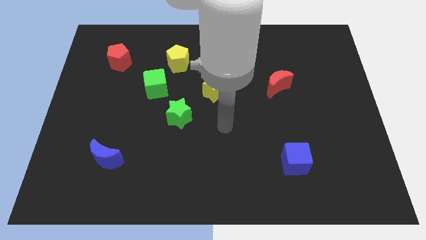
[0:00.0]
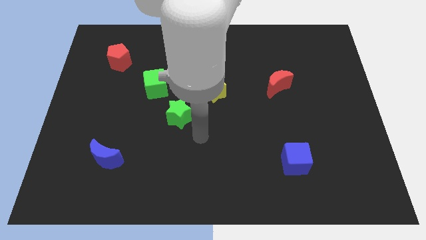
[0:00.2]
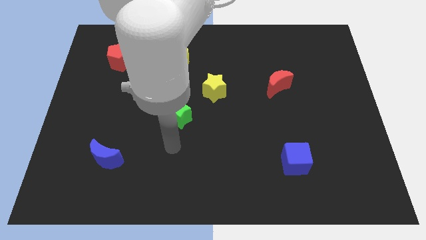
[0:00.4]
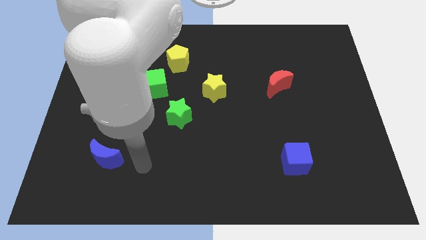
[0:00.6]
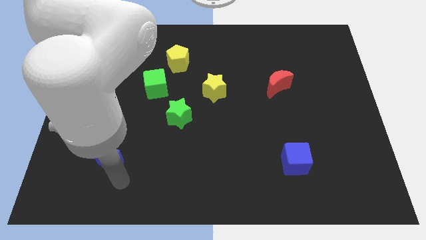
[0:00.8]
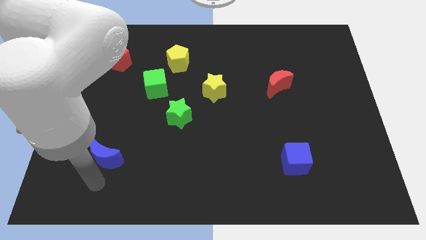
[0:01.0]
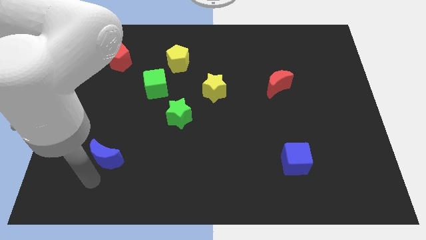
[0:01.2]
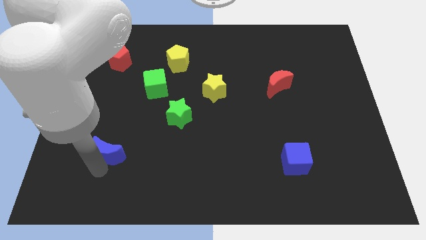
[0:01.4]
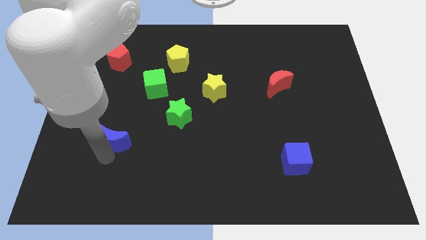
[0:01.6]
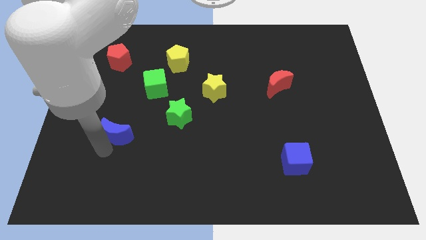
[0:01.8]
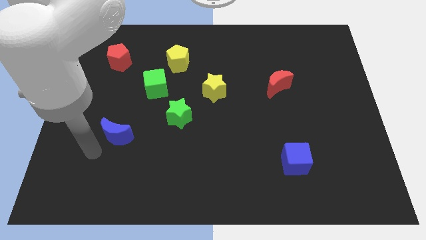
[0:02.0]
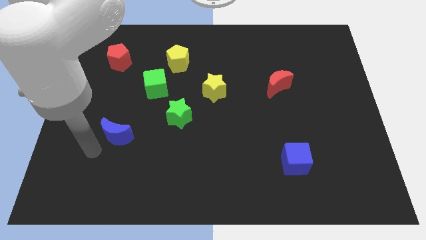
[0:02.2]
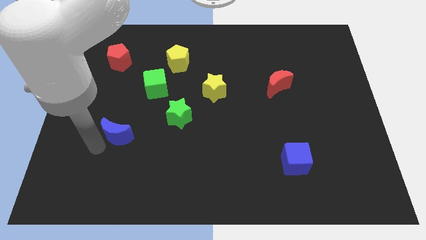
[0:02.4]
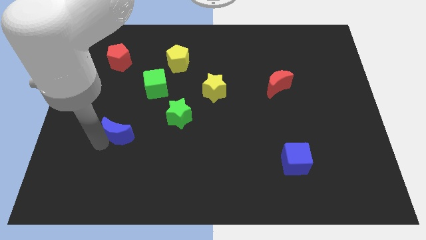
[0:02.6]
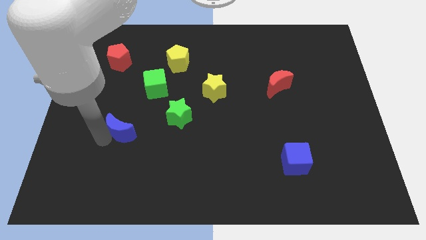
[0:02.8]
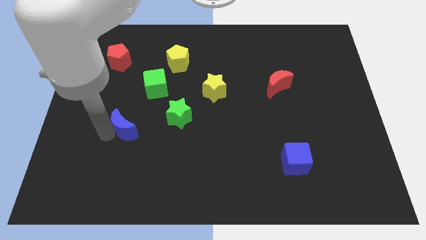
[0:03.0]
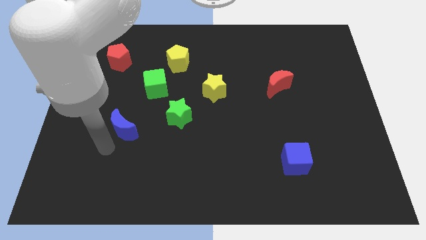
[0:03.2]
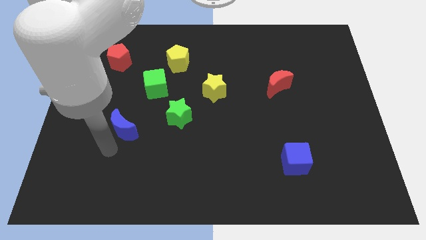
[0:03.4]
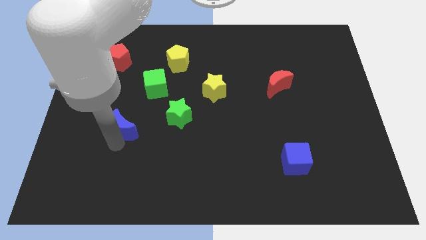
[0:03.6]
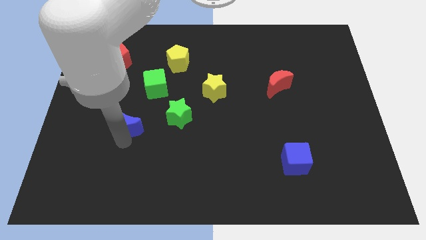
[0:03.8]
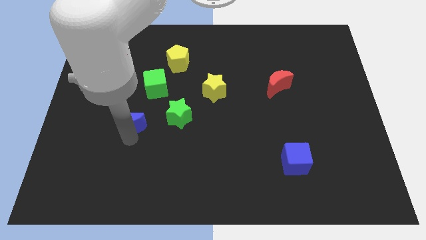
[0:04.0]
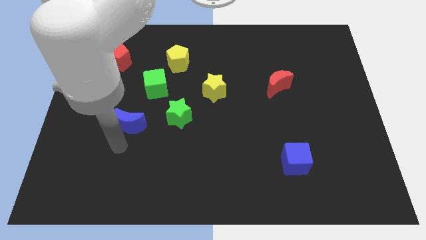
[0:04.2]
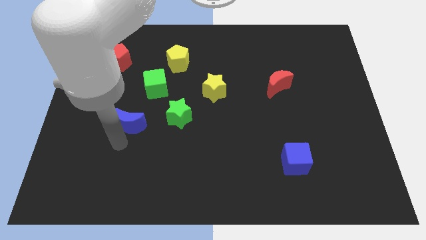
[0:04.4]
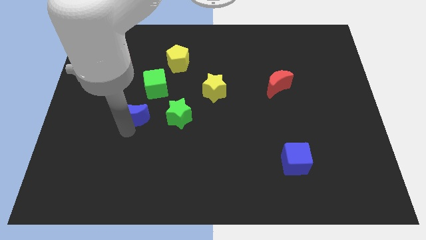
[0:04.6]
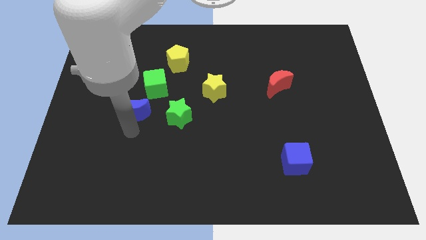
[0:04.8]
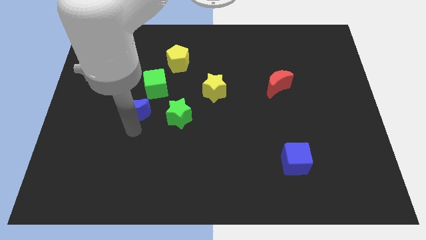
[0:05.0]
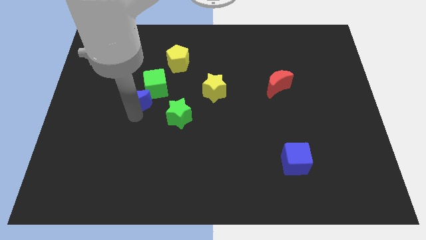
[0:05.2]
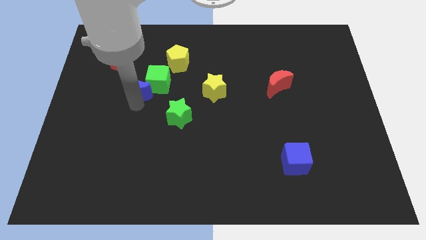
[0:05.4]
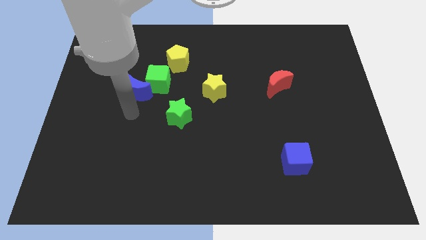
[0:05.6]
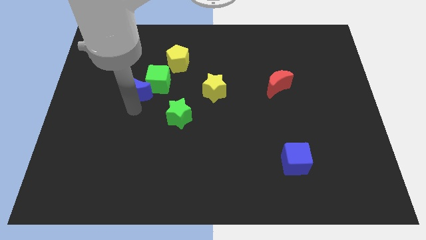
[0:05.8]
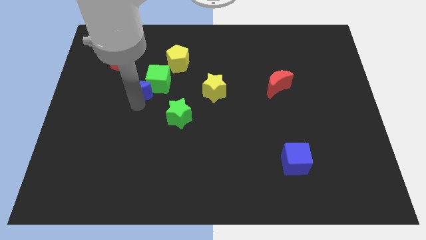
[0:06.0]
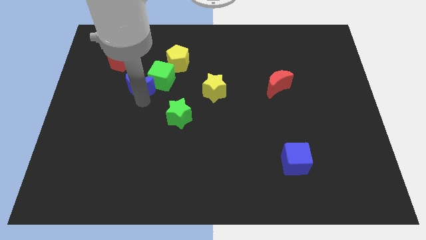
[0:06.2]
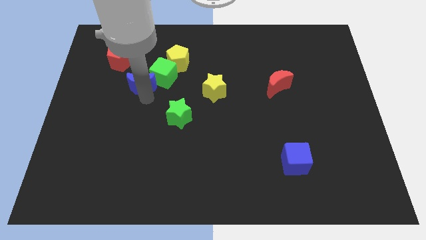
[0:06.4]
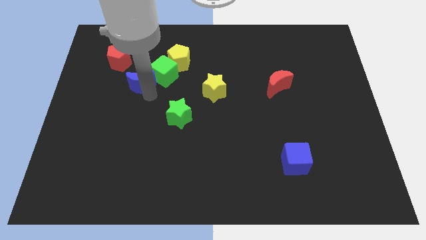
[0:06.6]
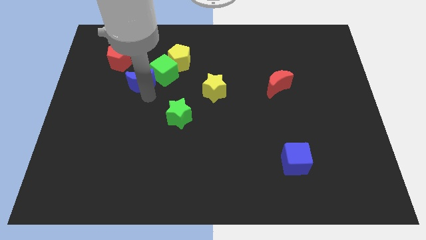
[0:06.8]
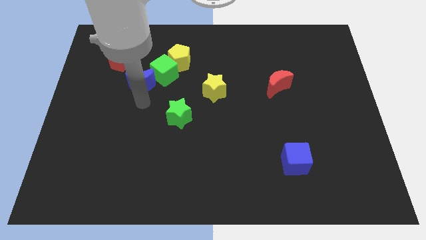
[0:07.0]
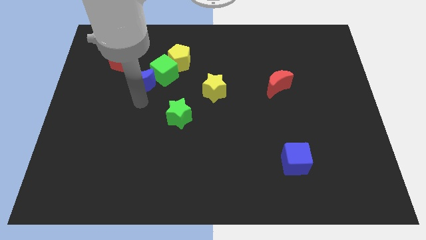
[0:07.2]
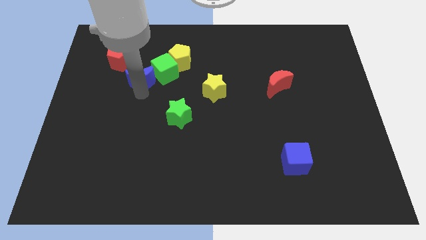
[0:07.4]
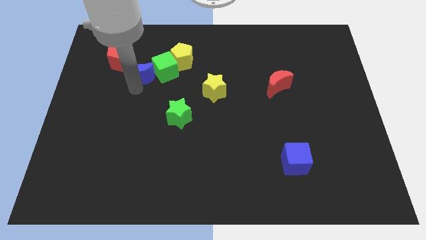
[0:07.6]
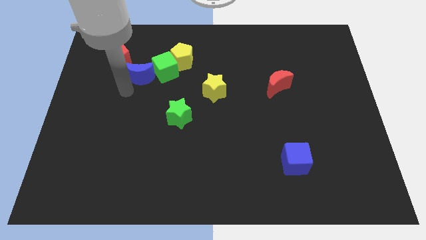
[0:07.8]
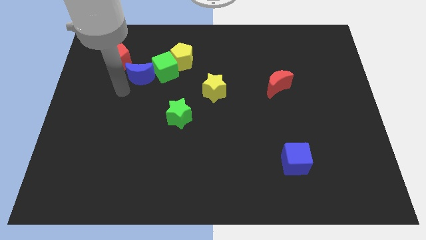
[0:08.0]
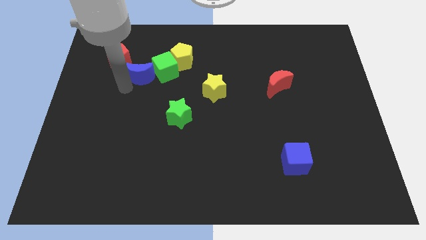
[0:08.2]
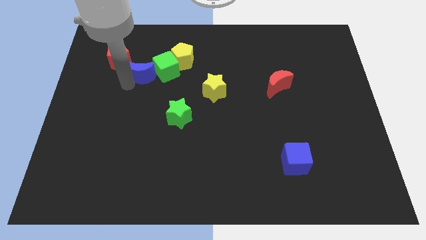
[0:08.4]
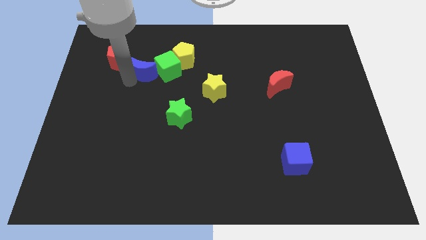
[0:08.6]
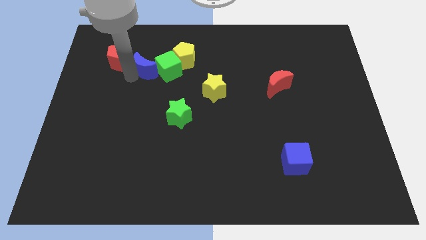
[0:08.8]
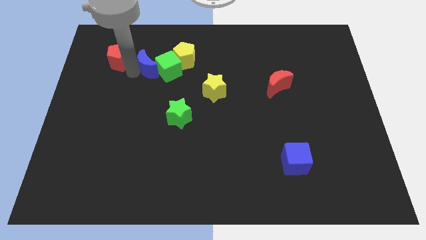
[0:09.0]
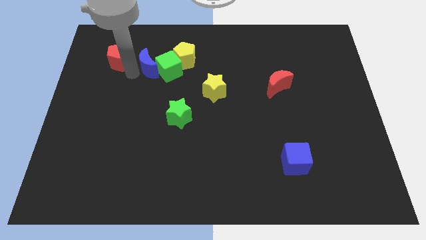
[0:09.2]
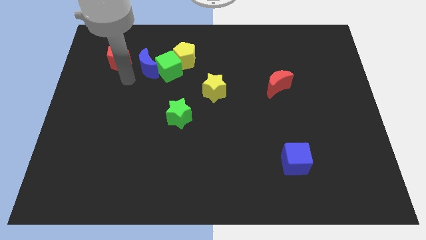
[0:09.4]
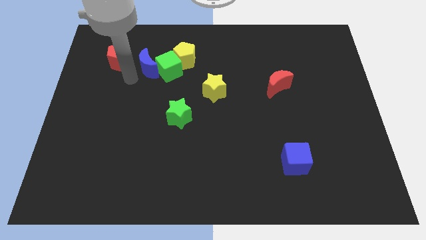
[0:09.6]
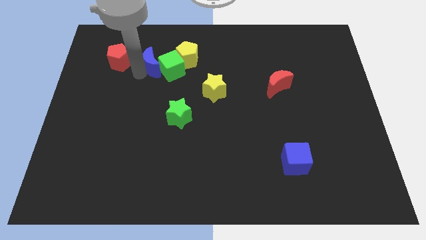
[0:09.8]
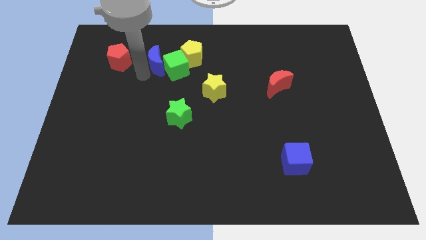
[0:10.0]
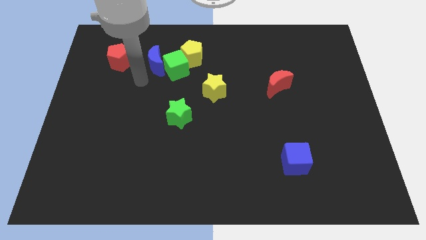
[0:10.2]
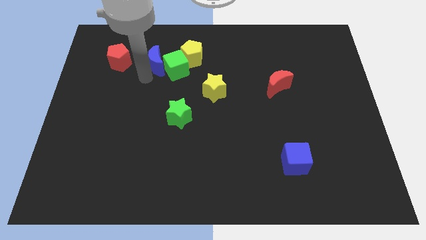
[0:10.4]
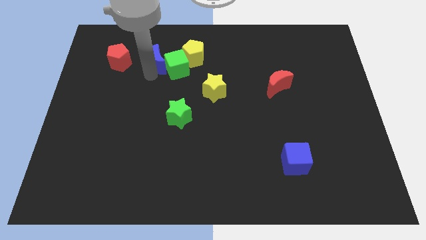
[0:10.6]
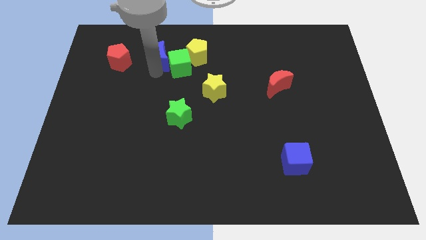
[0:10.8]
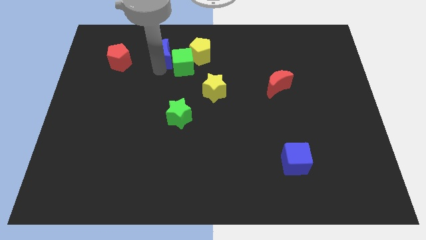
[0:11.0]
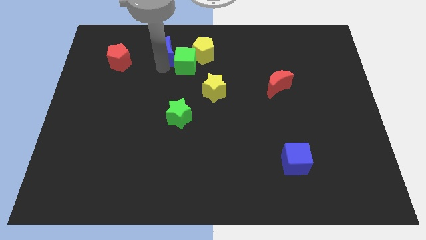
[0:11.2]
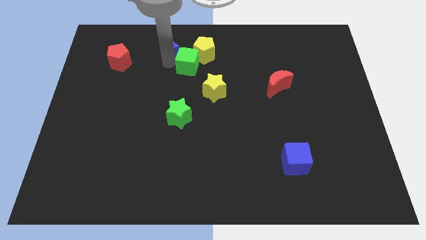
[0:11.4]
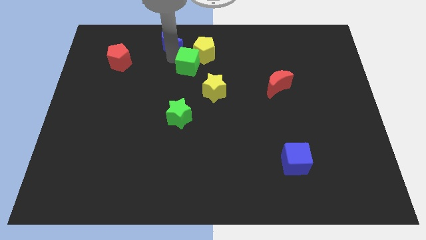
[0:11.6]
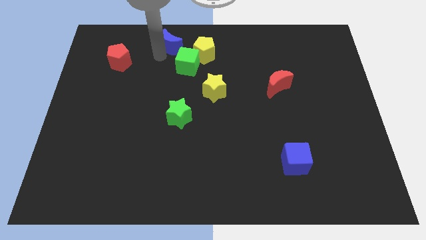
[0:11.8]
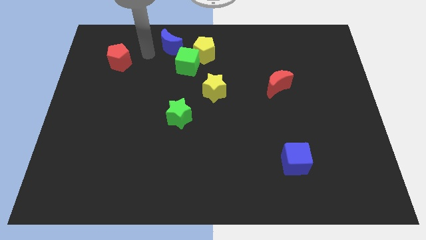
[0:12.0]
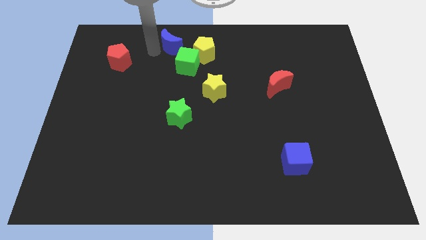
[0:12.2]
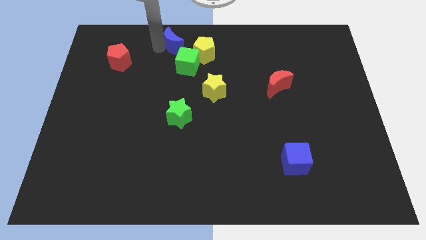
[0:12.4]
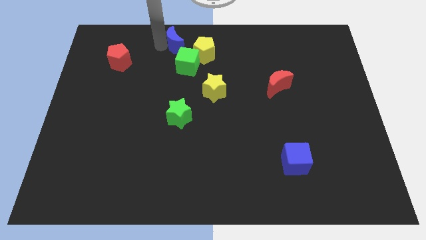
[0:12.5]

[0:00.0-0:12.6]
push the blue moon to the towards your base

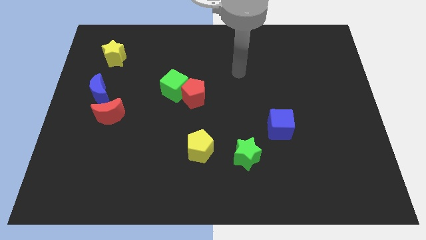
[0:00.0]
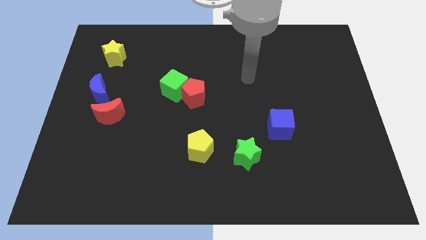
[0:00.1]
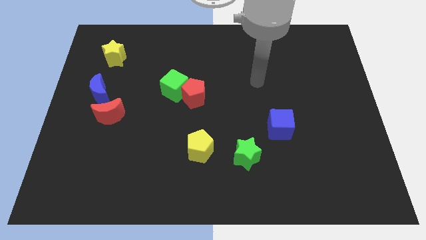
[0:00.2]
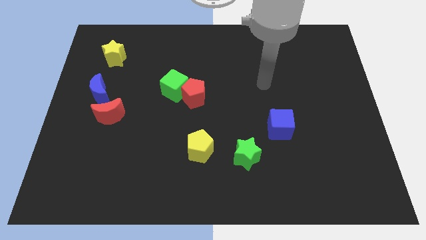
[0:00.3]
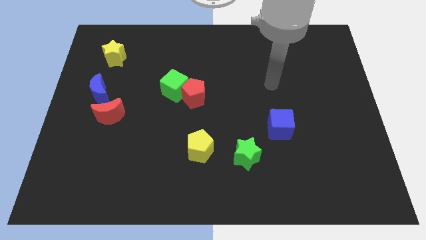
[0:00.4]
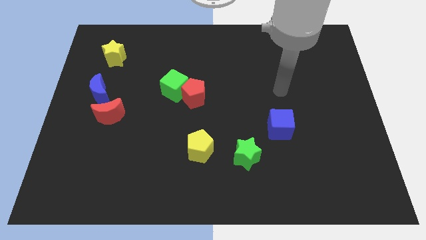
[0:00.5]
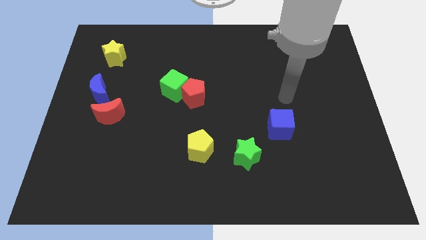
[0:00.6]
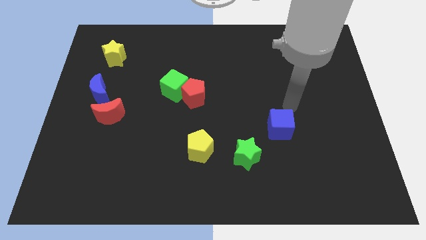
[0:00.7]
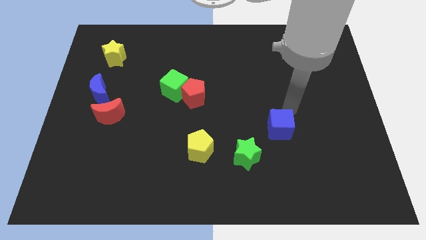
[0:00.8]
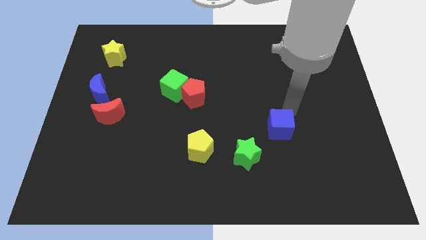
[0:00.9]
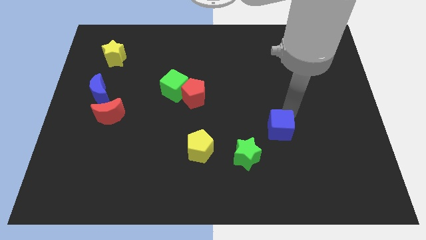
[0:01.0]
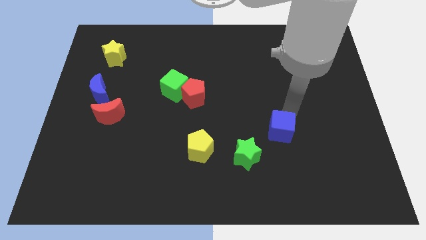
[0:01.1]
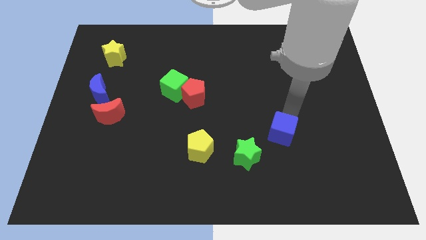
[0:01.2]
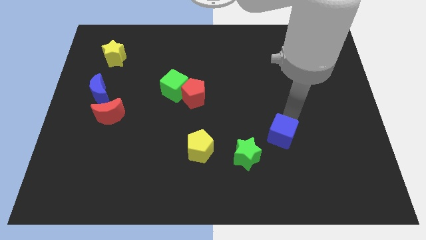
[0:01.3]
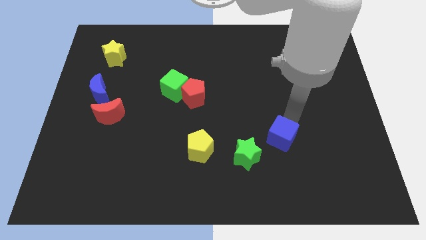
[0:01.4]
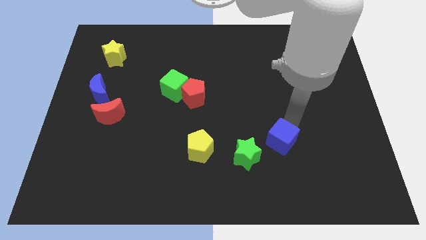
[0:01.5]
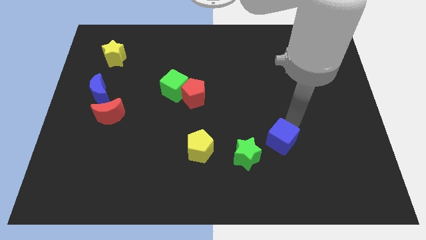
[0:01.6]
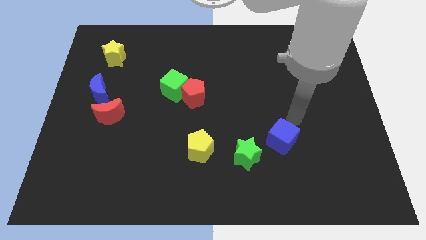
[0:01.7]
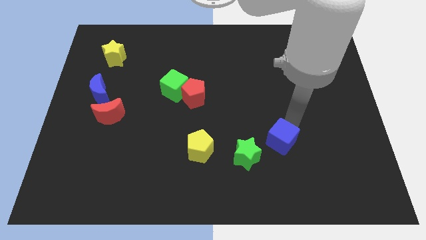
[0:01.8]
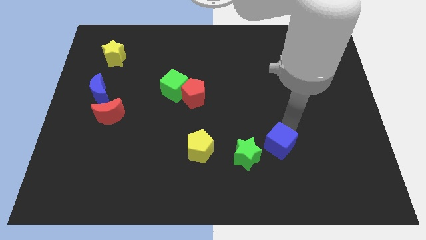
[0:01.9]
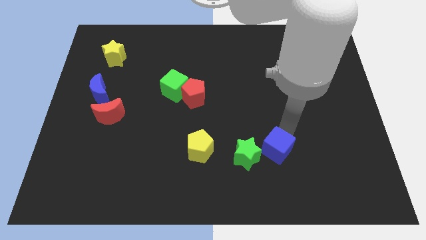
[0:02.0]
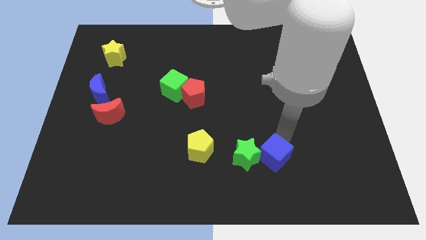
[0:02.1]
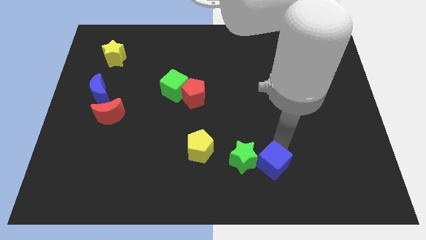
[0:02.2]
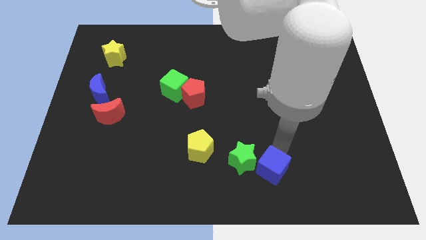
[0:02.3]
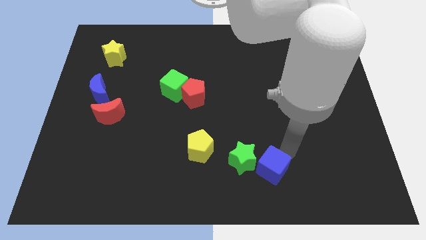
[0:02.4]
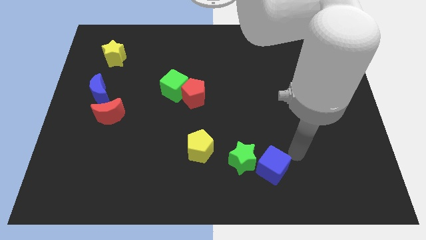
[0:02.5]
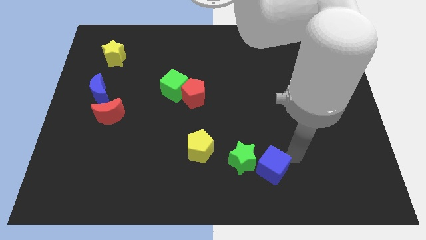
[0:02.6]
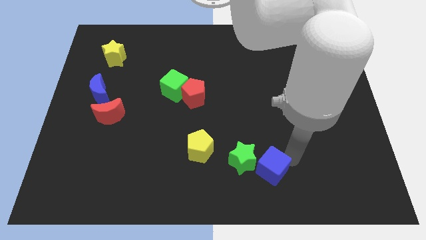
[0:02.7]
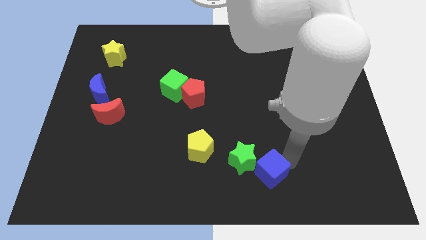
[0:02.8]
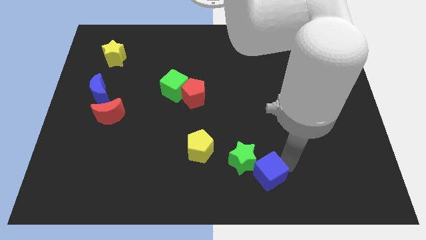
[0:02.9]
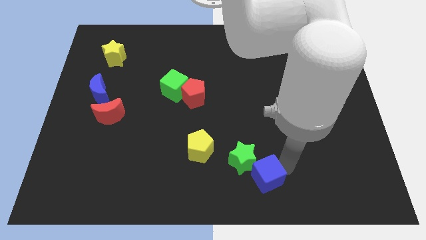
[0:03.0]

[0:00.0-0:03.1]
put the blue cube to the bottom
